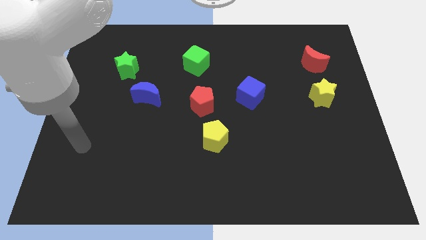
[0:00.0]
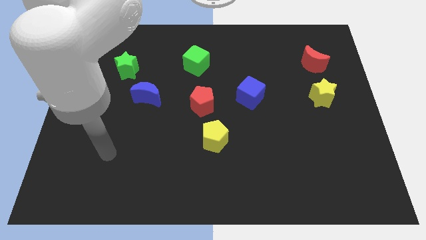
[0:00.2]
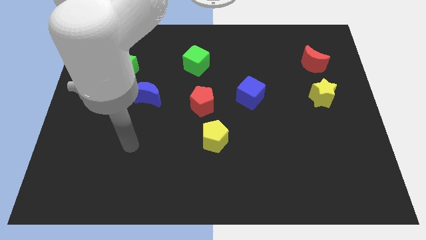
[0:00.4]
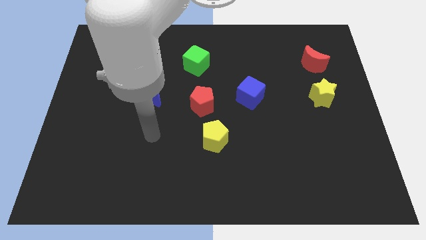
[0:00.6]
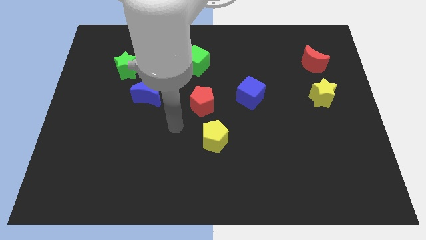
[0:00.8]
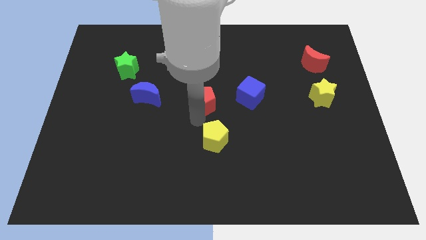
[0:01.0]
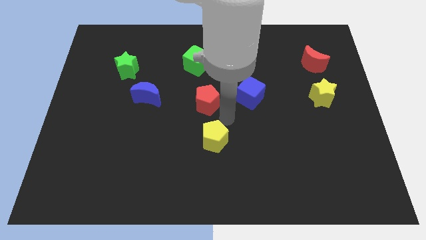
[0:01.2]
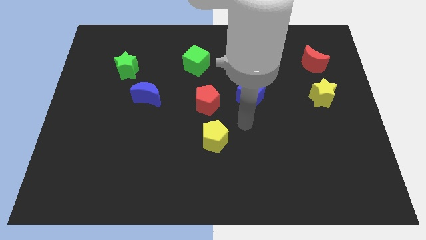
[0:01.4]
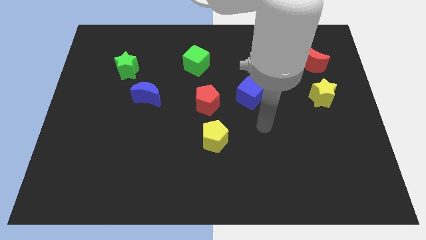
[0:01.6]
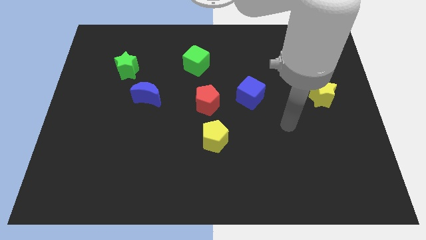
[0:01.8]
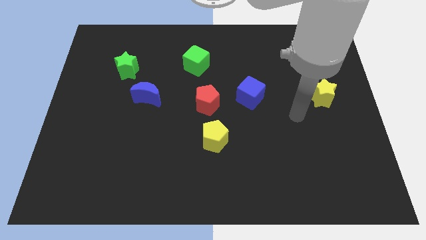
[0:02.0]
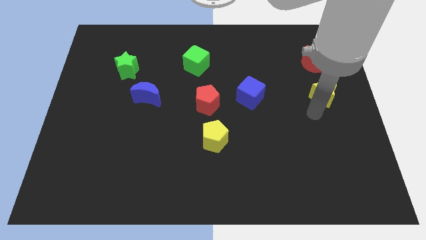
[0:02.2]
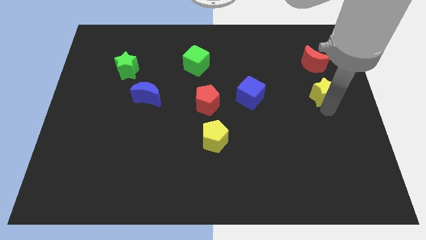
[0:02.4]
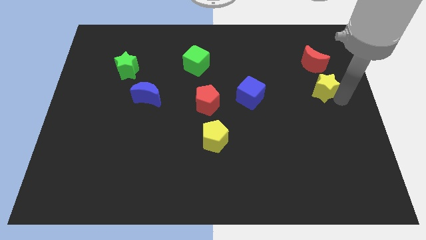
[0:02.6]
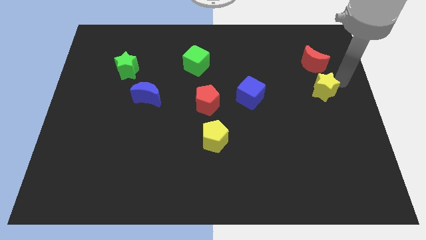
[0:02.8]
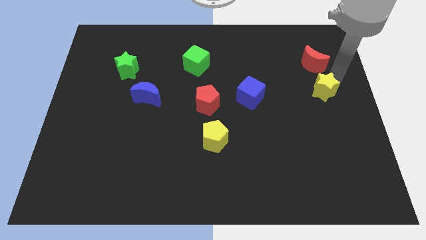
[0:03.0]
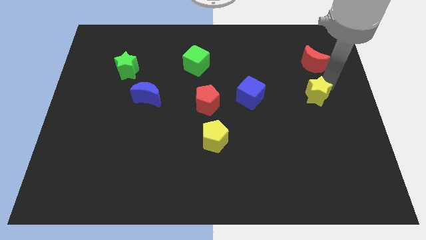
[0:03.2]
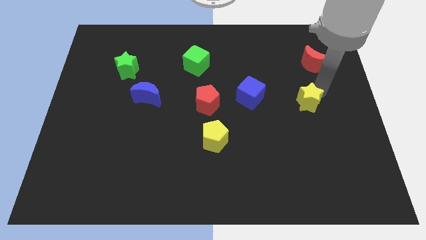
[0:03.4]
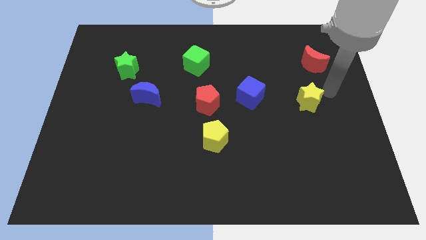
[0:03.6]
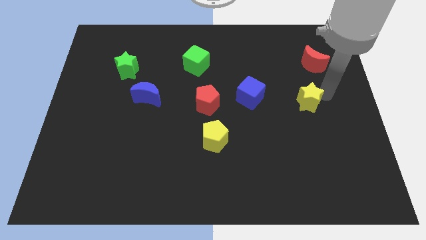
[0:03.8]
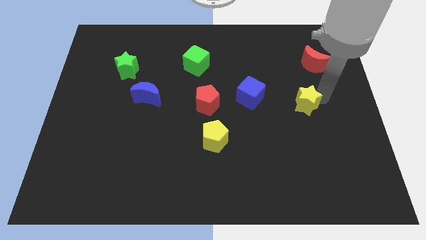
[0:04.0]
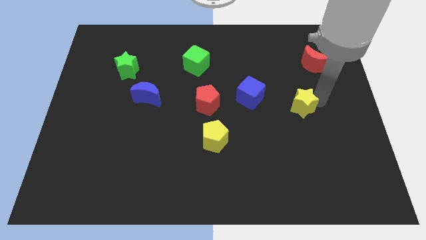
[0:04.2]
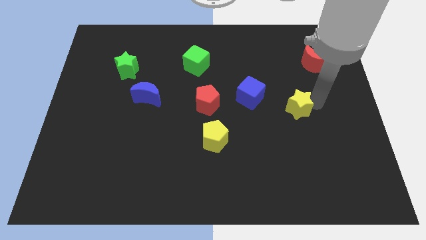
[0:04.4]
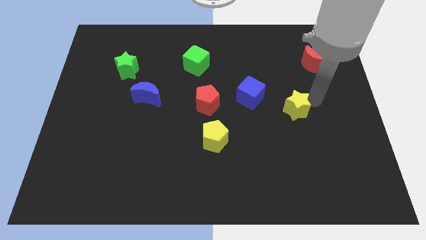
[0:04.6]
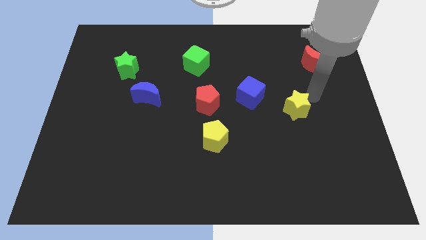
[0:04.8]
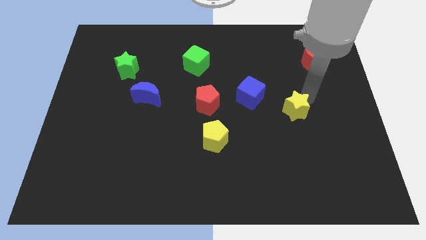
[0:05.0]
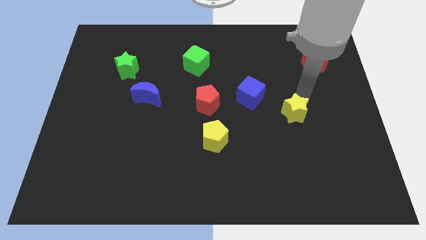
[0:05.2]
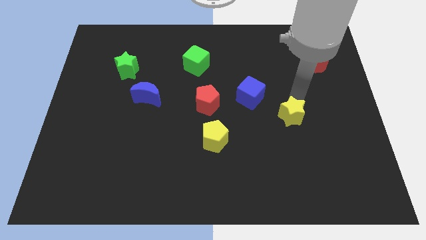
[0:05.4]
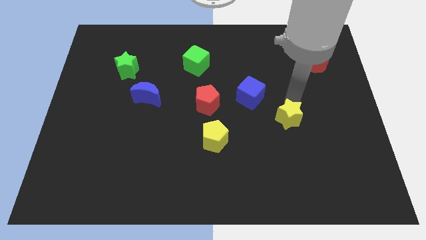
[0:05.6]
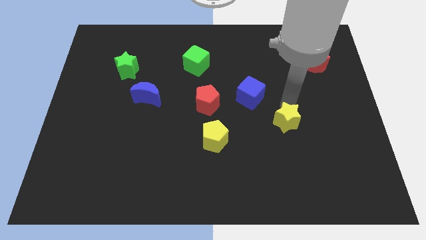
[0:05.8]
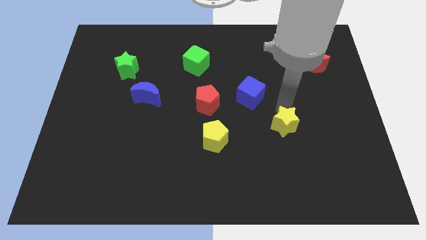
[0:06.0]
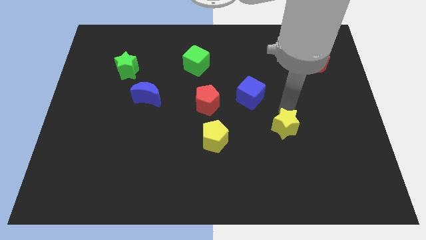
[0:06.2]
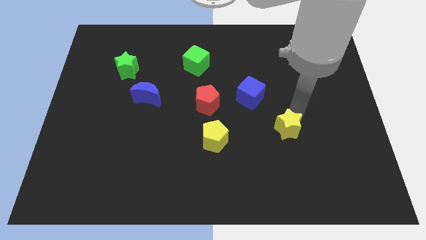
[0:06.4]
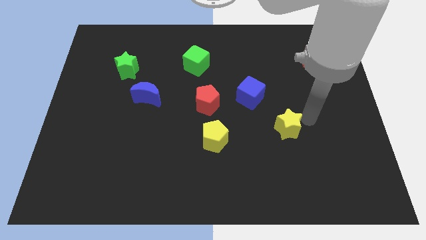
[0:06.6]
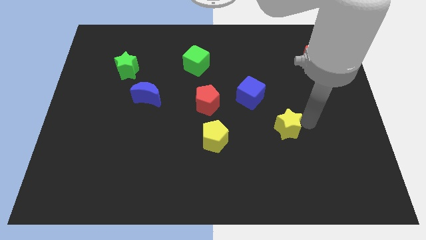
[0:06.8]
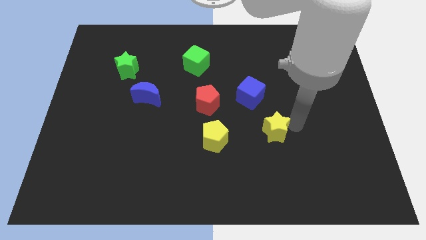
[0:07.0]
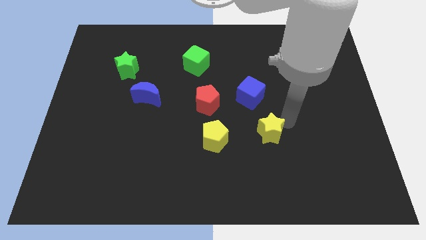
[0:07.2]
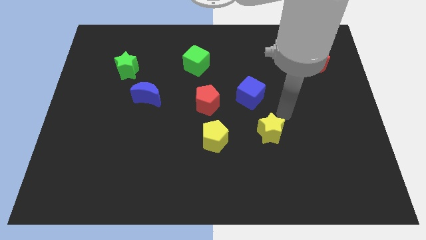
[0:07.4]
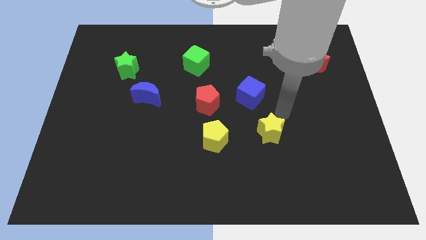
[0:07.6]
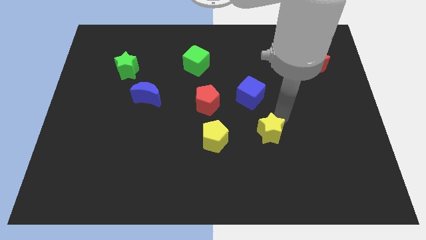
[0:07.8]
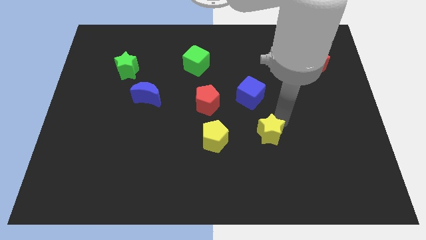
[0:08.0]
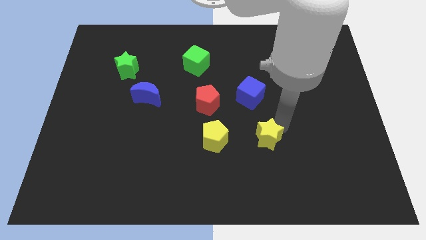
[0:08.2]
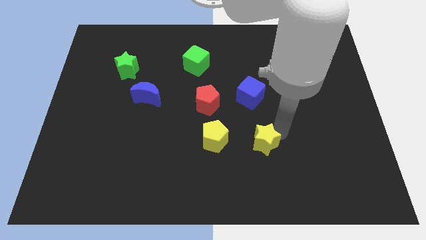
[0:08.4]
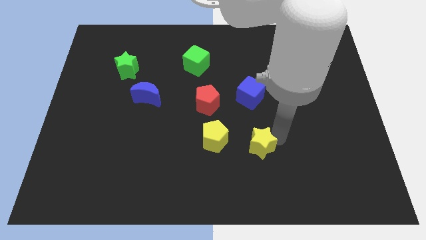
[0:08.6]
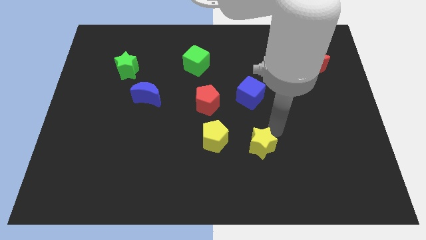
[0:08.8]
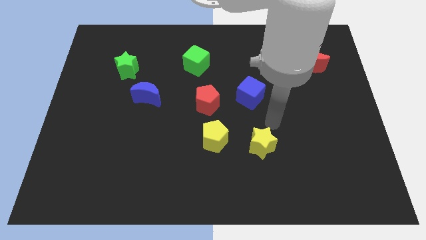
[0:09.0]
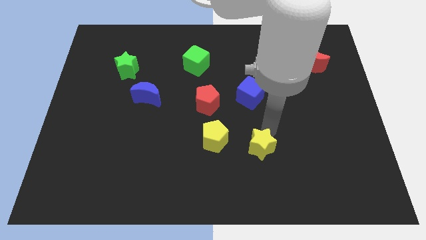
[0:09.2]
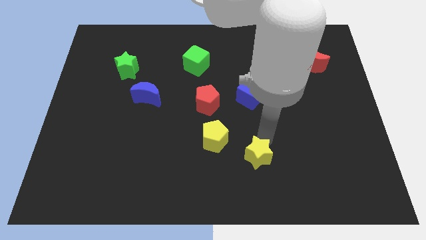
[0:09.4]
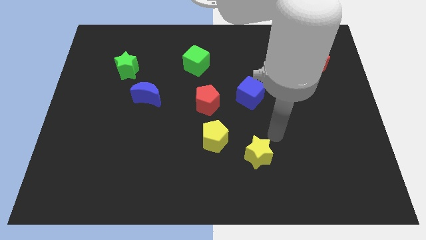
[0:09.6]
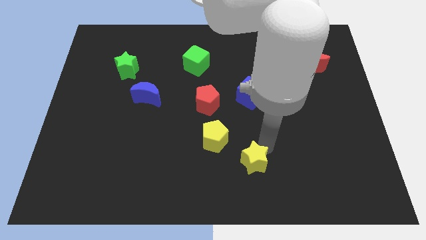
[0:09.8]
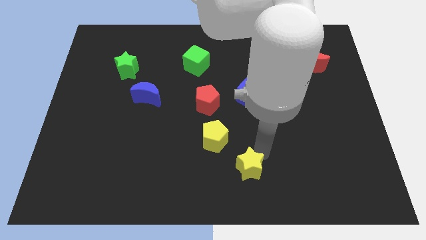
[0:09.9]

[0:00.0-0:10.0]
push the yellow star to the bottom

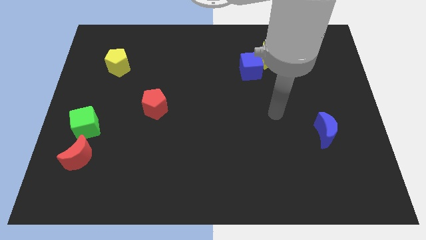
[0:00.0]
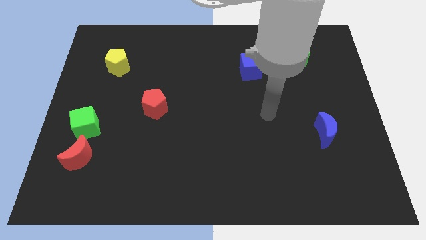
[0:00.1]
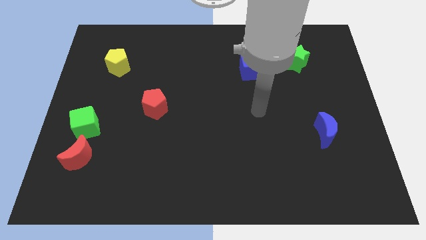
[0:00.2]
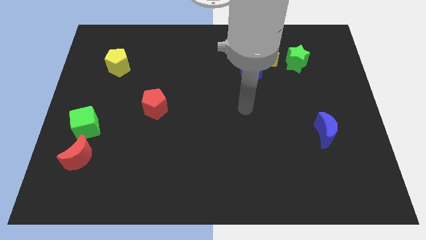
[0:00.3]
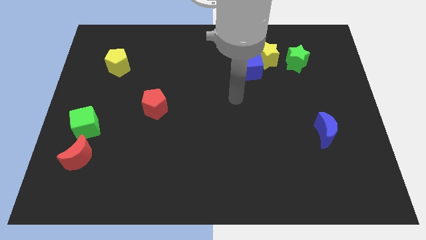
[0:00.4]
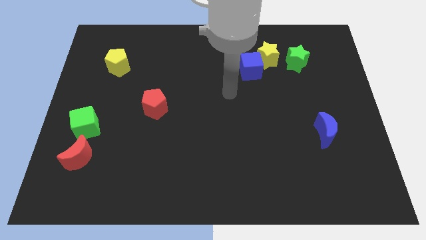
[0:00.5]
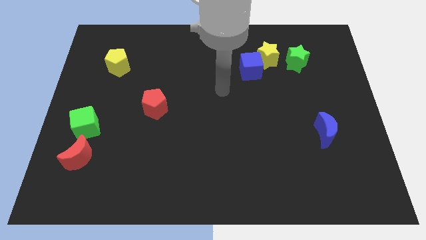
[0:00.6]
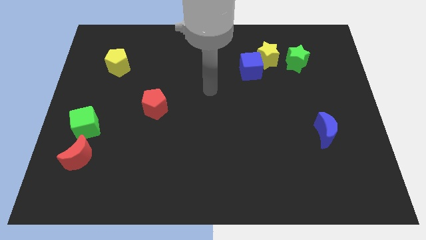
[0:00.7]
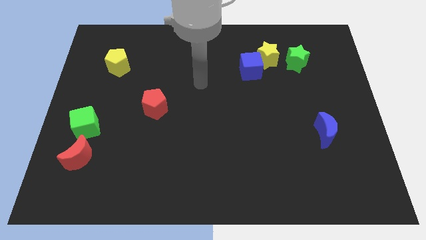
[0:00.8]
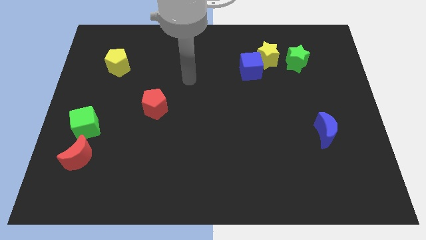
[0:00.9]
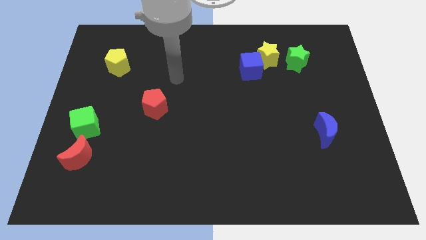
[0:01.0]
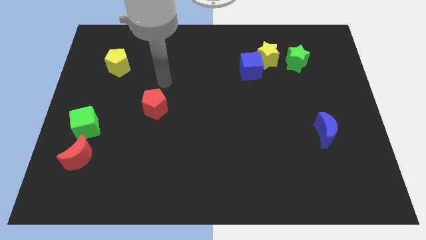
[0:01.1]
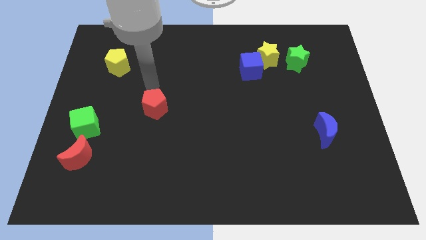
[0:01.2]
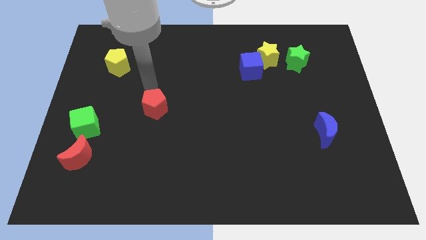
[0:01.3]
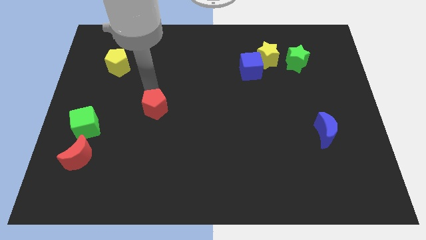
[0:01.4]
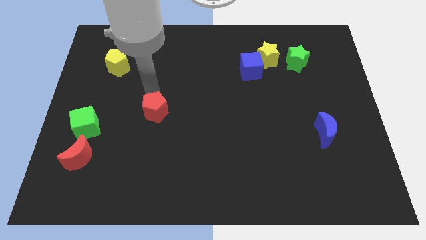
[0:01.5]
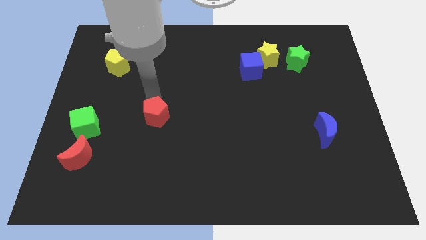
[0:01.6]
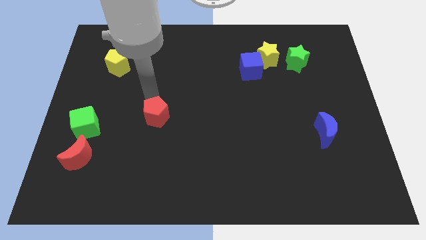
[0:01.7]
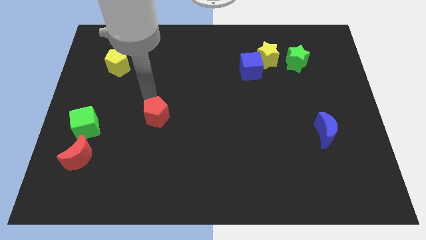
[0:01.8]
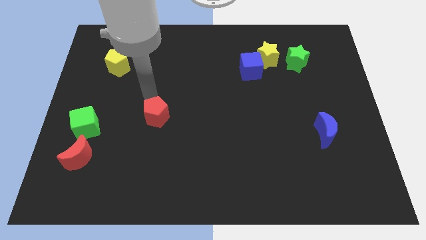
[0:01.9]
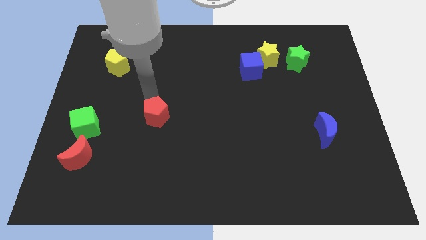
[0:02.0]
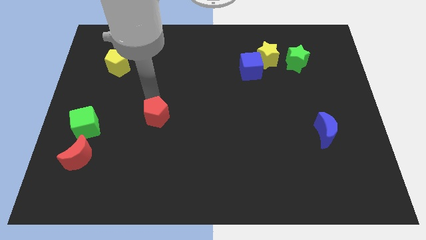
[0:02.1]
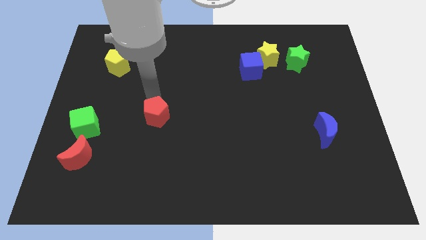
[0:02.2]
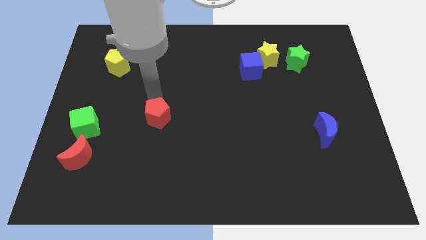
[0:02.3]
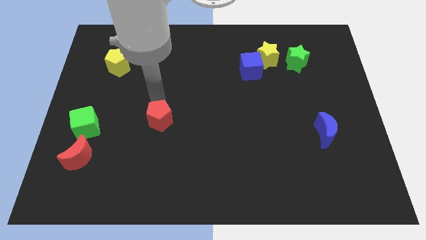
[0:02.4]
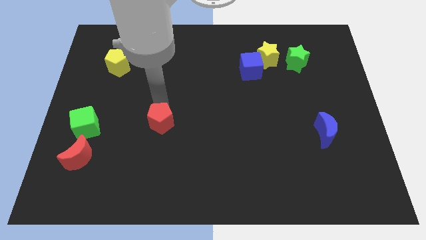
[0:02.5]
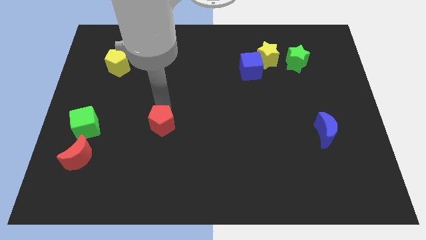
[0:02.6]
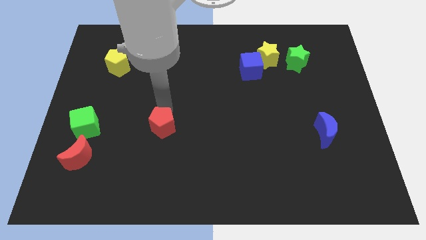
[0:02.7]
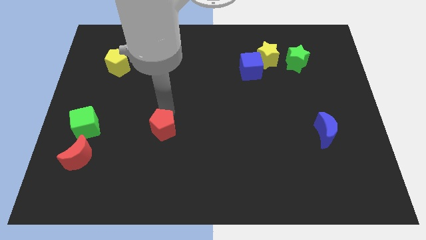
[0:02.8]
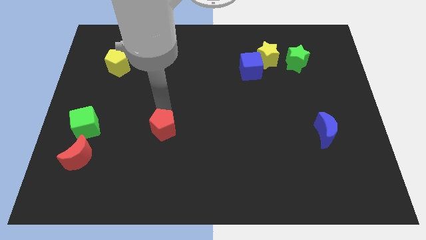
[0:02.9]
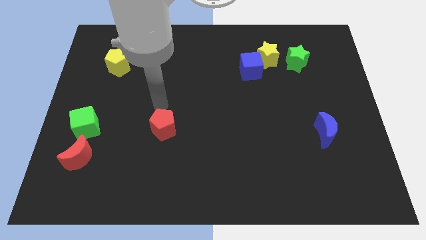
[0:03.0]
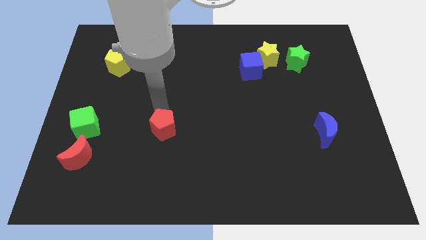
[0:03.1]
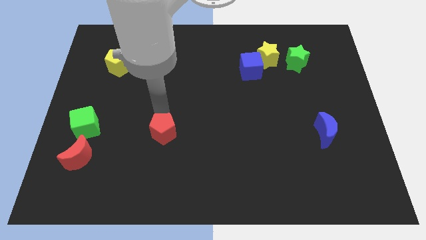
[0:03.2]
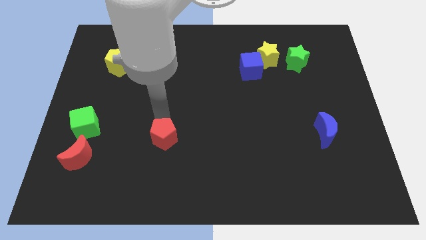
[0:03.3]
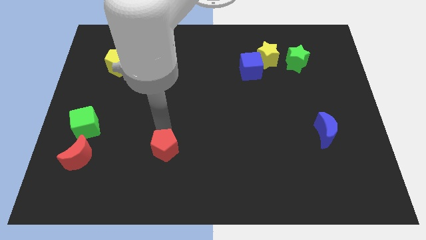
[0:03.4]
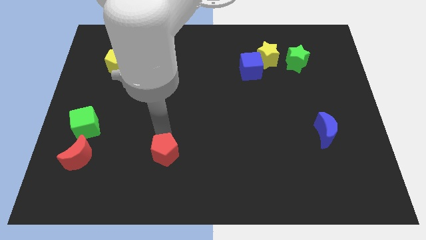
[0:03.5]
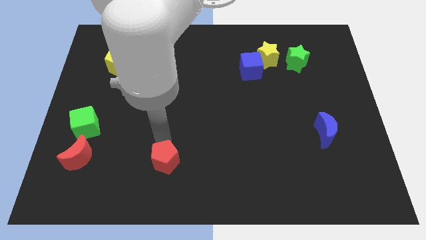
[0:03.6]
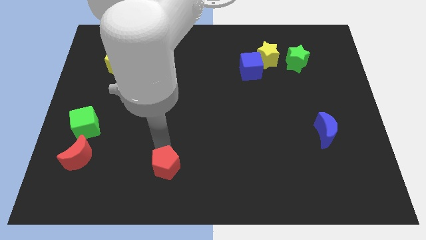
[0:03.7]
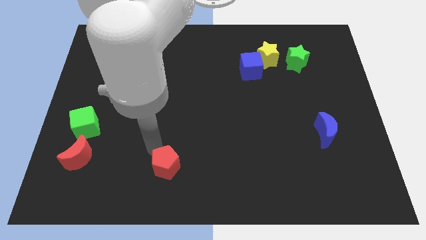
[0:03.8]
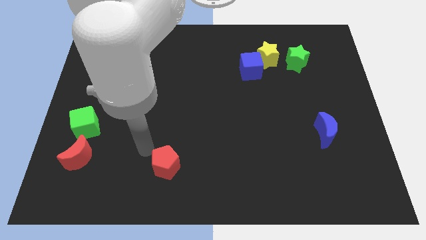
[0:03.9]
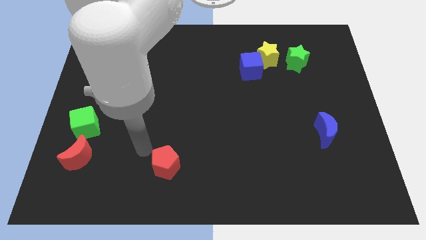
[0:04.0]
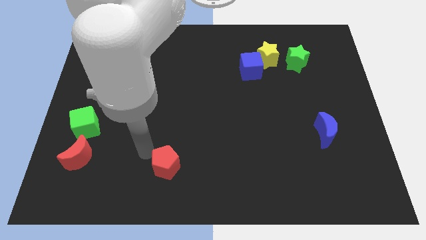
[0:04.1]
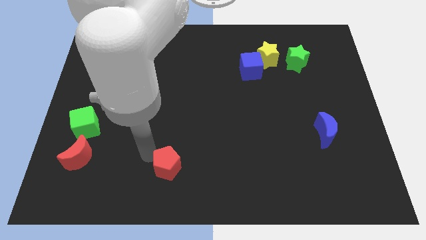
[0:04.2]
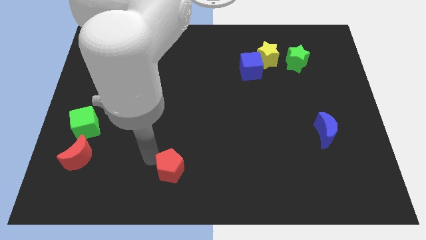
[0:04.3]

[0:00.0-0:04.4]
push the red pentagon to the bottom side
